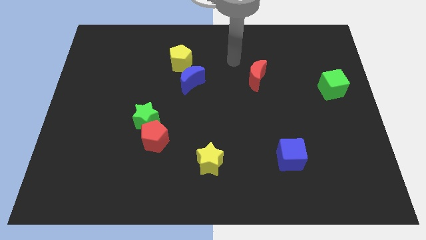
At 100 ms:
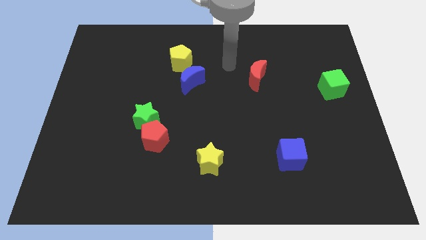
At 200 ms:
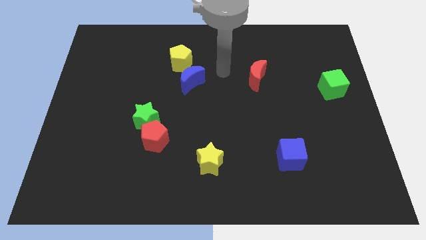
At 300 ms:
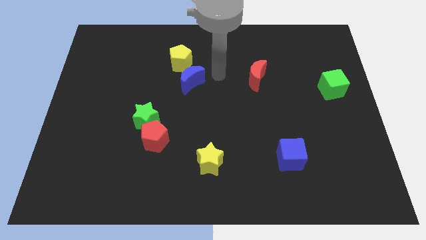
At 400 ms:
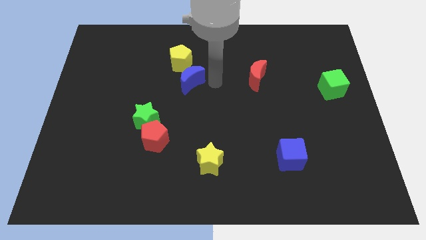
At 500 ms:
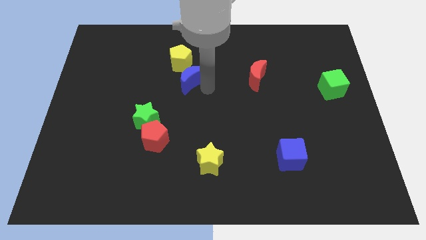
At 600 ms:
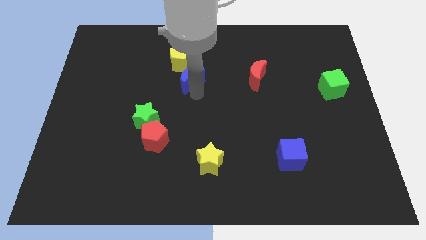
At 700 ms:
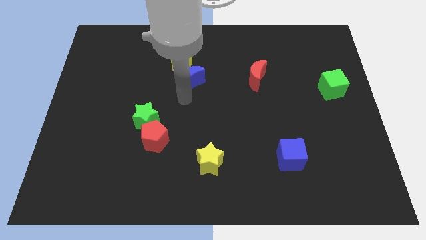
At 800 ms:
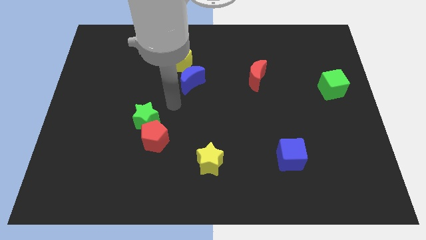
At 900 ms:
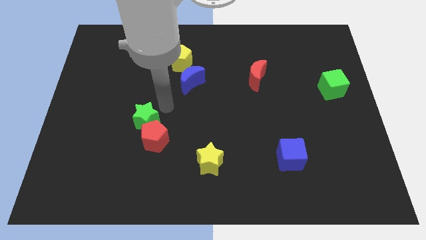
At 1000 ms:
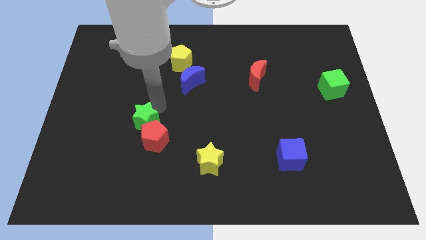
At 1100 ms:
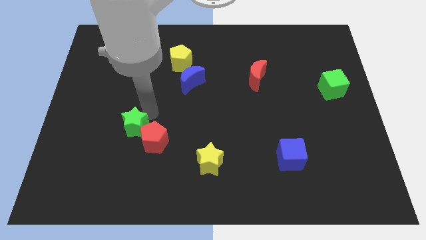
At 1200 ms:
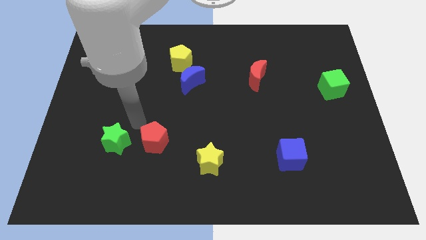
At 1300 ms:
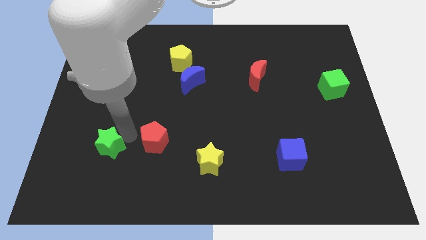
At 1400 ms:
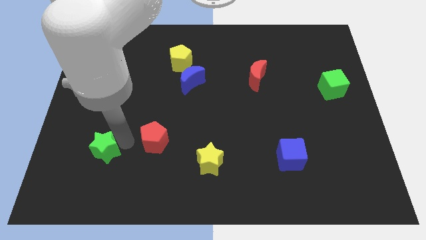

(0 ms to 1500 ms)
pull the red pentagon apart from the green star

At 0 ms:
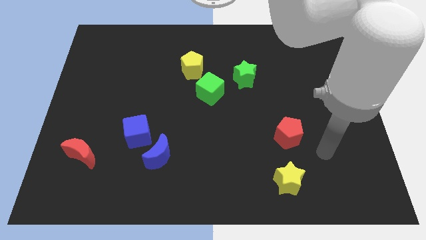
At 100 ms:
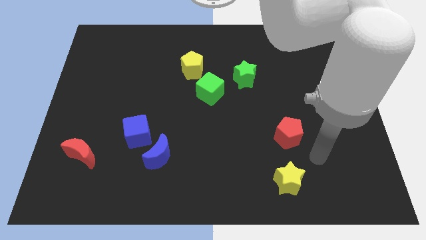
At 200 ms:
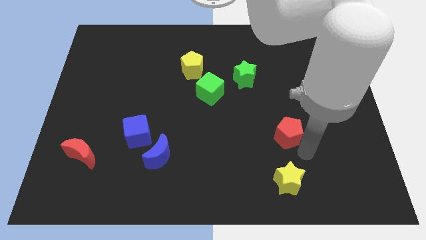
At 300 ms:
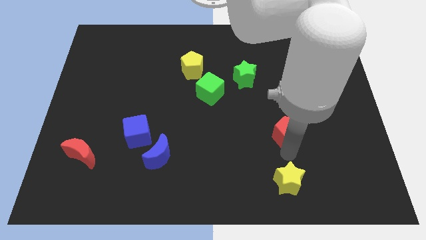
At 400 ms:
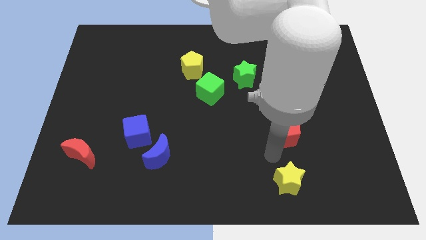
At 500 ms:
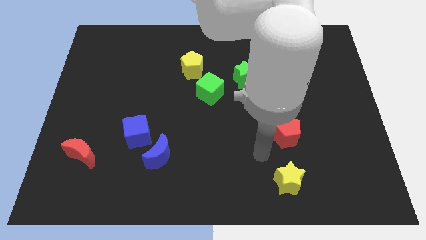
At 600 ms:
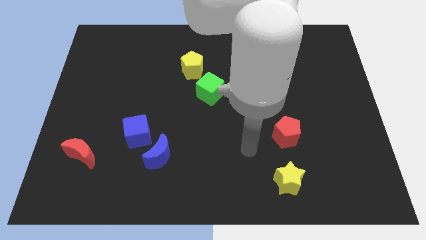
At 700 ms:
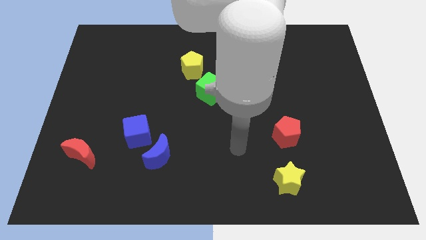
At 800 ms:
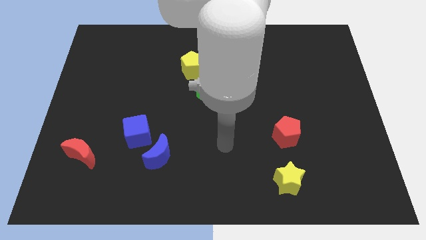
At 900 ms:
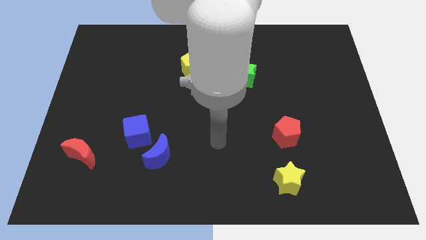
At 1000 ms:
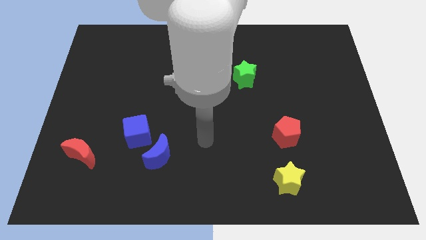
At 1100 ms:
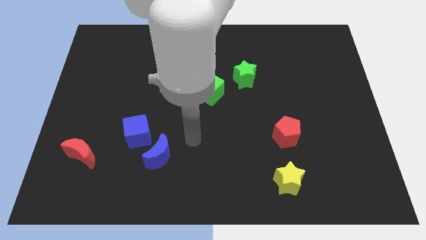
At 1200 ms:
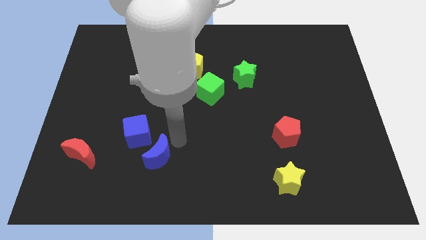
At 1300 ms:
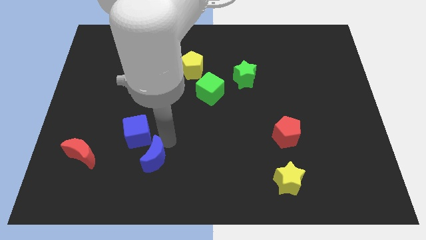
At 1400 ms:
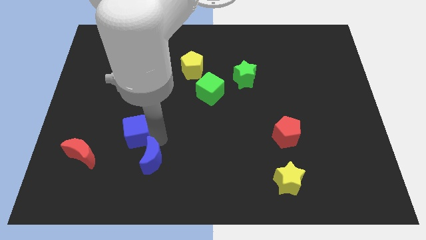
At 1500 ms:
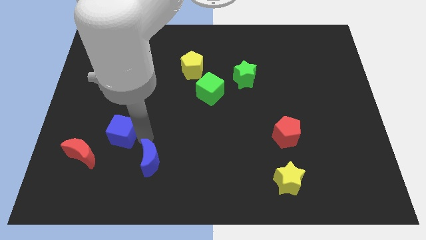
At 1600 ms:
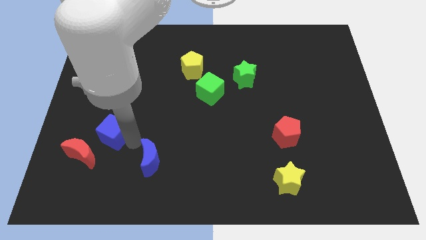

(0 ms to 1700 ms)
separate the blue moon from the blue cube

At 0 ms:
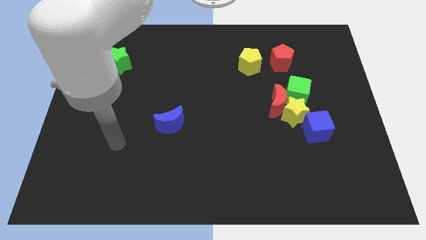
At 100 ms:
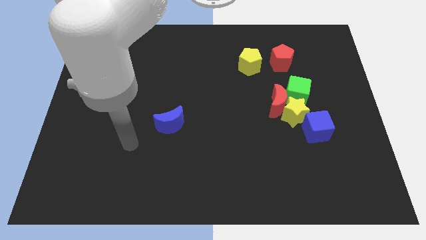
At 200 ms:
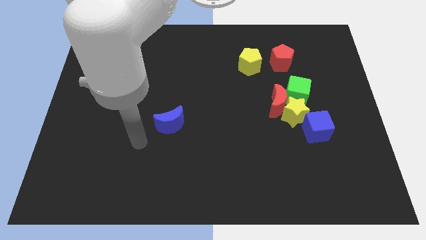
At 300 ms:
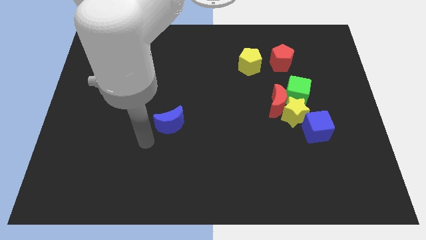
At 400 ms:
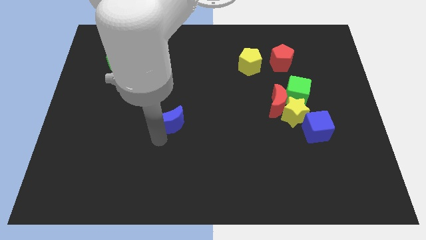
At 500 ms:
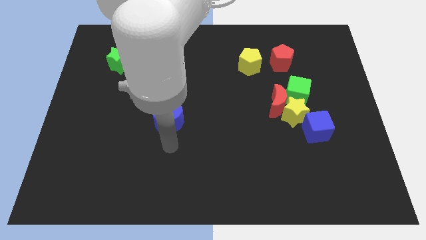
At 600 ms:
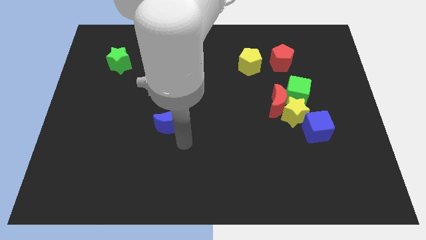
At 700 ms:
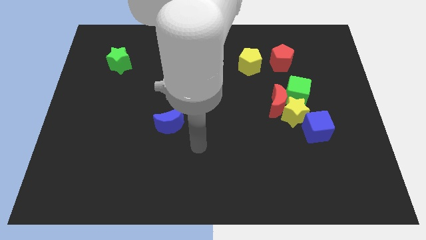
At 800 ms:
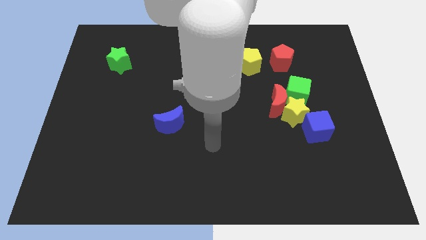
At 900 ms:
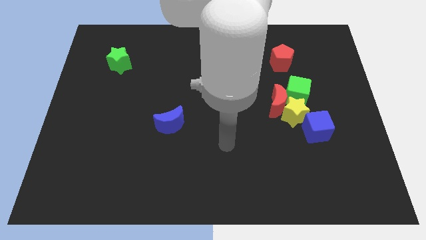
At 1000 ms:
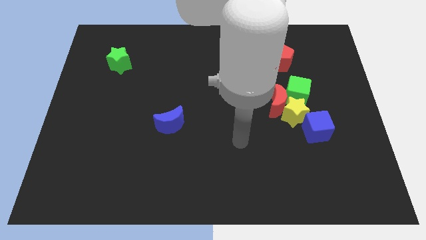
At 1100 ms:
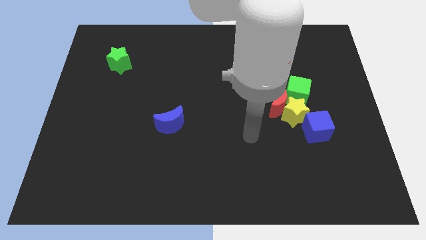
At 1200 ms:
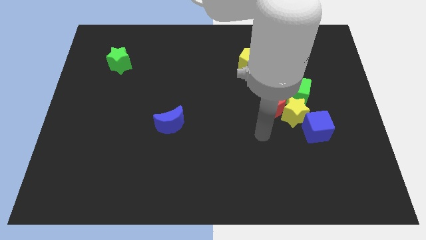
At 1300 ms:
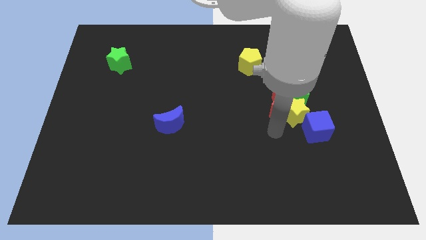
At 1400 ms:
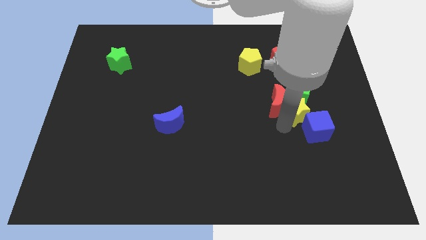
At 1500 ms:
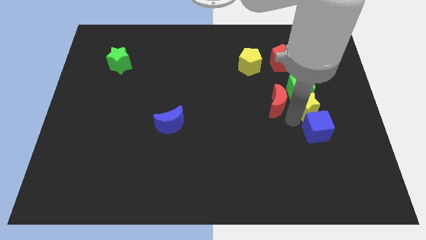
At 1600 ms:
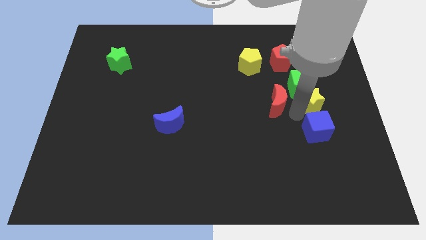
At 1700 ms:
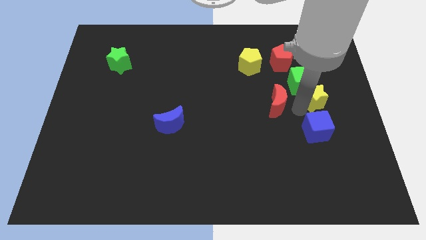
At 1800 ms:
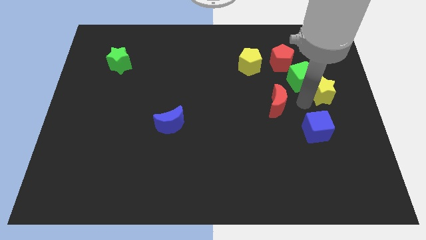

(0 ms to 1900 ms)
separate the red moon from the yellow star and green cube

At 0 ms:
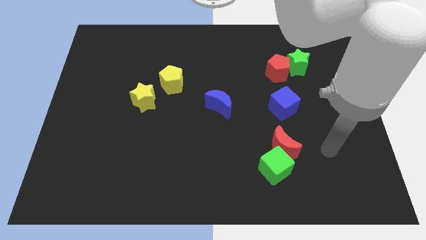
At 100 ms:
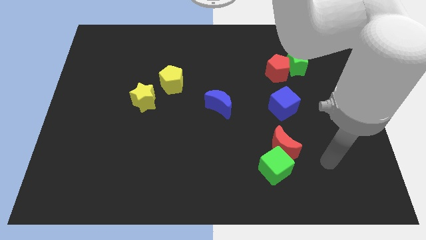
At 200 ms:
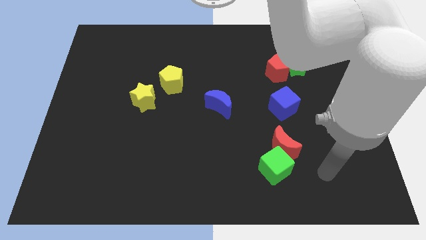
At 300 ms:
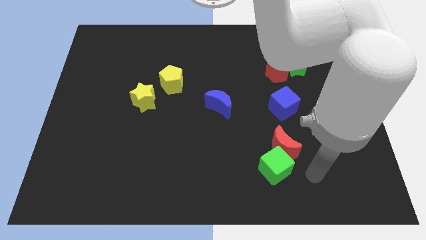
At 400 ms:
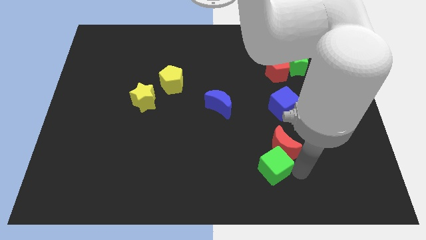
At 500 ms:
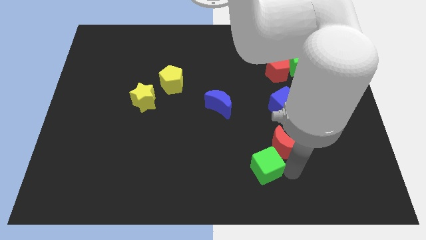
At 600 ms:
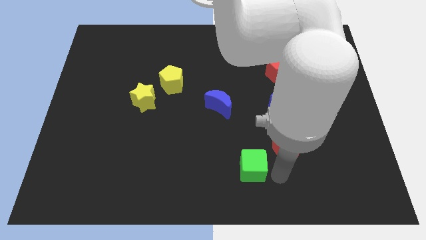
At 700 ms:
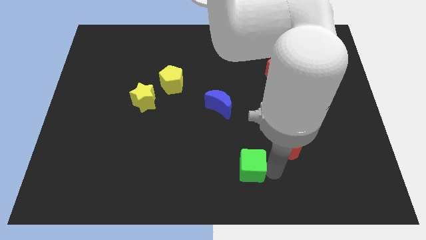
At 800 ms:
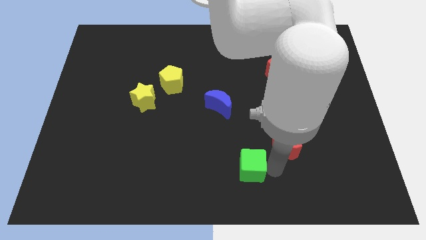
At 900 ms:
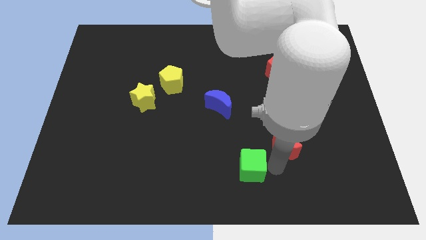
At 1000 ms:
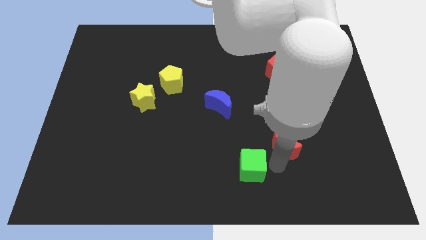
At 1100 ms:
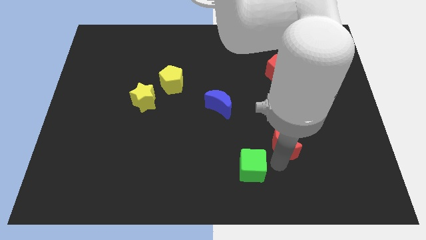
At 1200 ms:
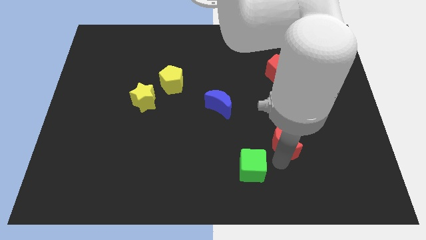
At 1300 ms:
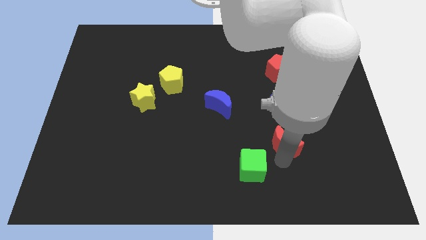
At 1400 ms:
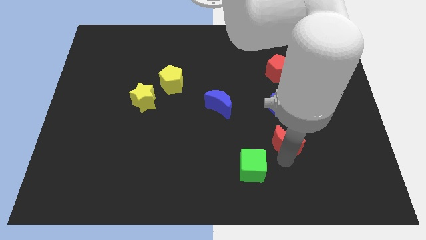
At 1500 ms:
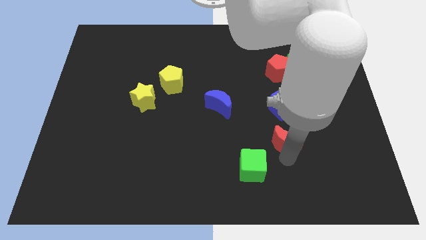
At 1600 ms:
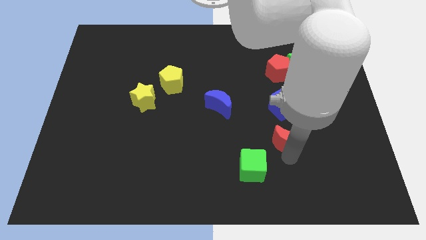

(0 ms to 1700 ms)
pull the red moon apart from the green cube

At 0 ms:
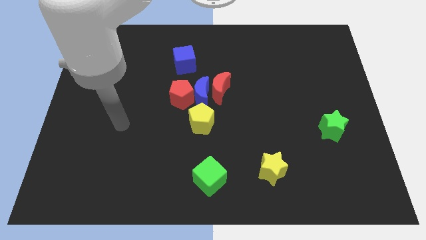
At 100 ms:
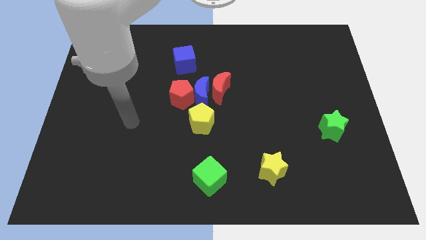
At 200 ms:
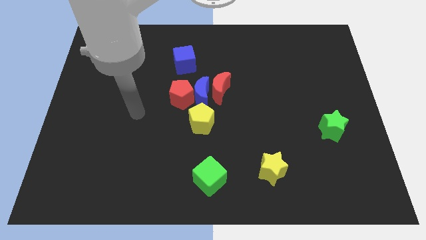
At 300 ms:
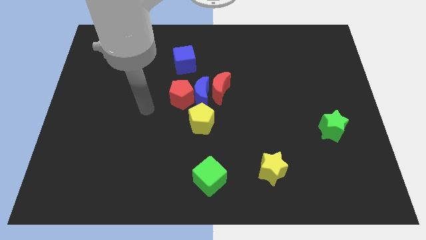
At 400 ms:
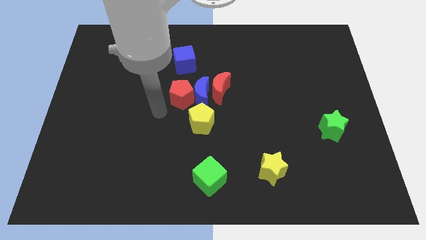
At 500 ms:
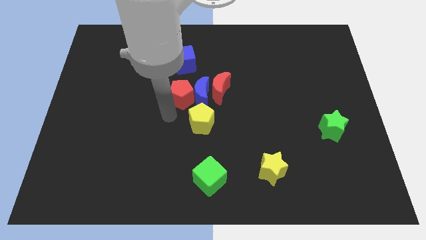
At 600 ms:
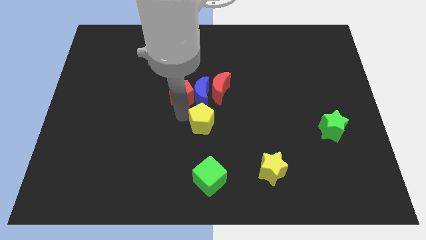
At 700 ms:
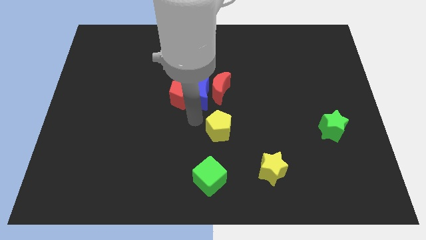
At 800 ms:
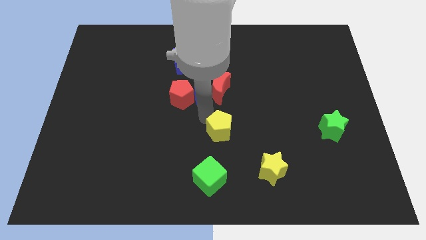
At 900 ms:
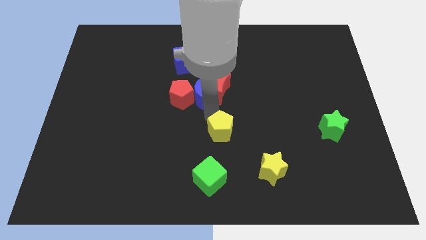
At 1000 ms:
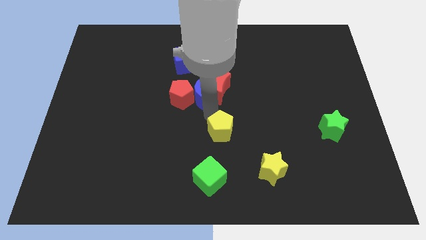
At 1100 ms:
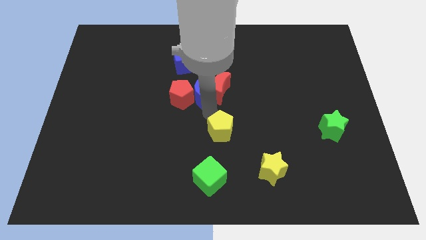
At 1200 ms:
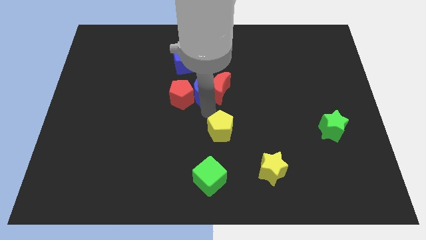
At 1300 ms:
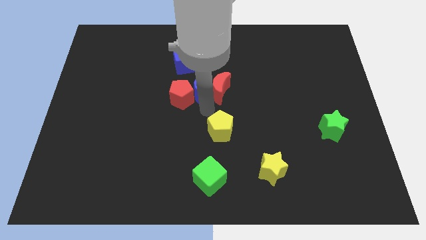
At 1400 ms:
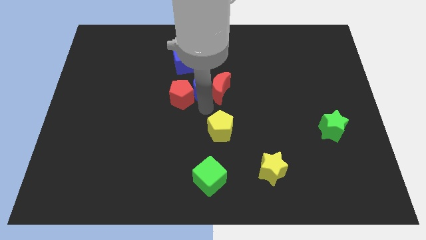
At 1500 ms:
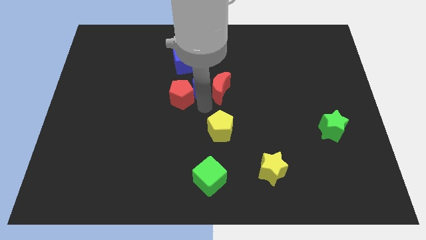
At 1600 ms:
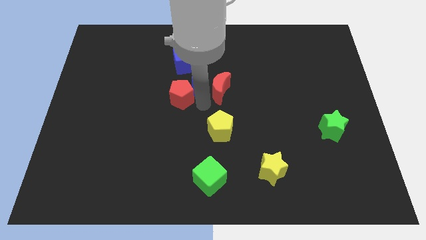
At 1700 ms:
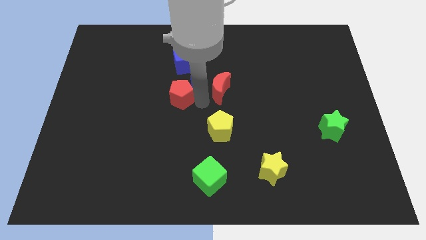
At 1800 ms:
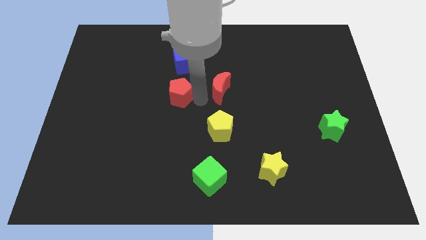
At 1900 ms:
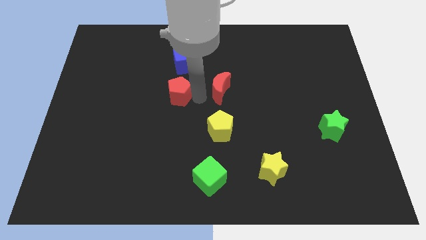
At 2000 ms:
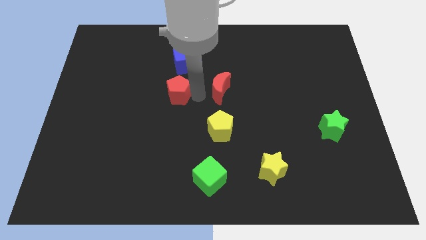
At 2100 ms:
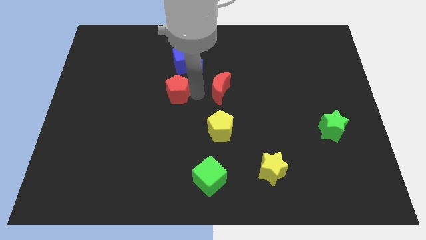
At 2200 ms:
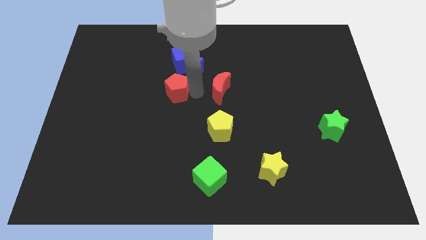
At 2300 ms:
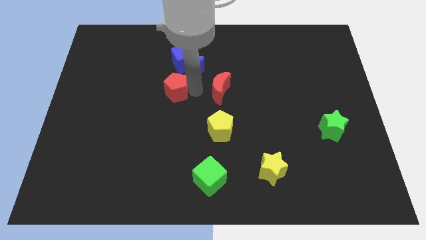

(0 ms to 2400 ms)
pull the blue moon apart from the clump

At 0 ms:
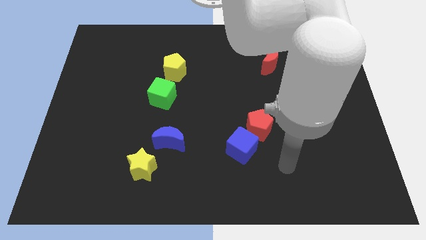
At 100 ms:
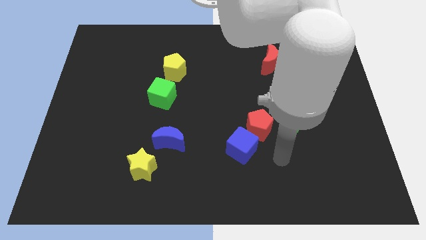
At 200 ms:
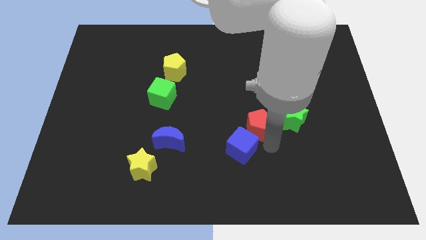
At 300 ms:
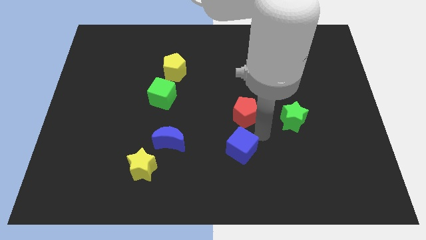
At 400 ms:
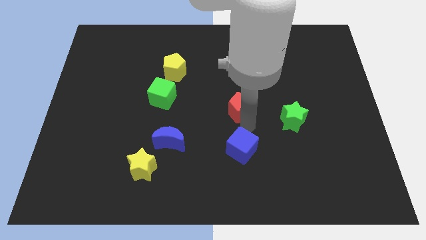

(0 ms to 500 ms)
separate the blue cube from the red pentagon
